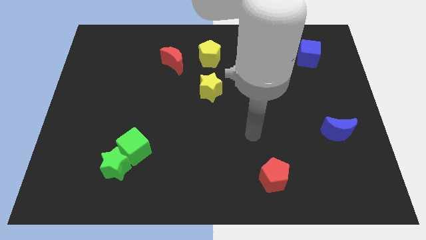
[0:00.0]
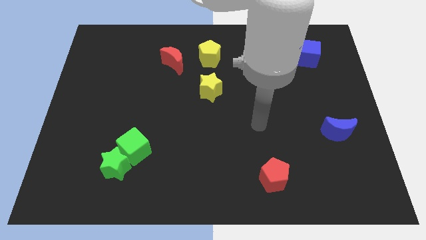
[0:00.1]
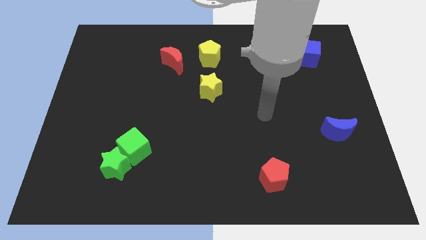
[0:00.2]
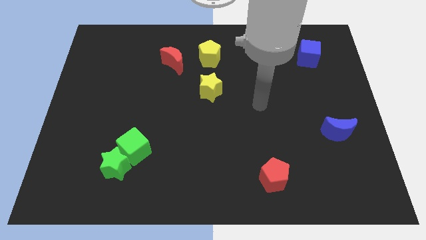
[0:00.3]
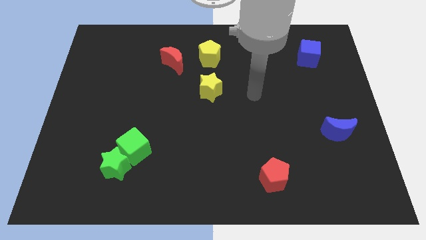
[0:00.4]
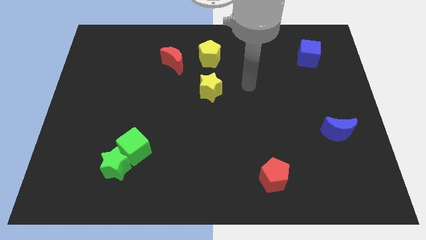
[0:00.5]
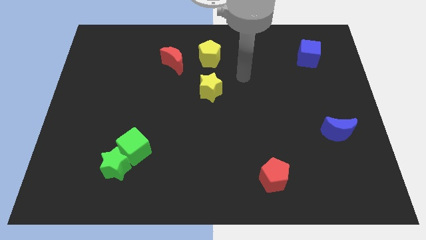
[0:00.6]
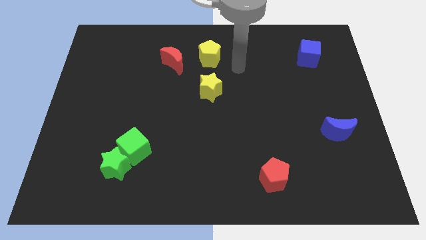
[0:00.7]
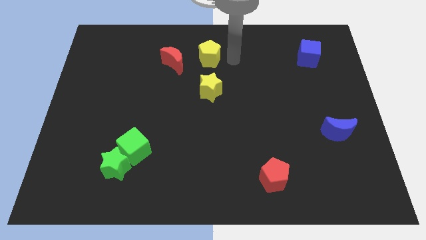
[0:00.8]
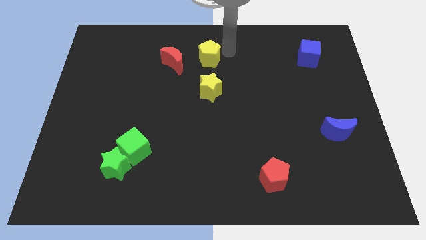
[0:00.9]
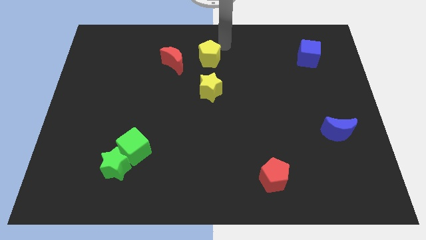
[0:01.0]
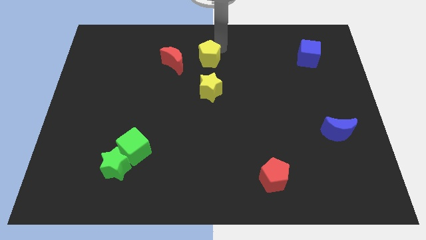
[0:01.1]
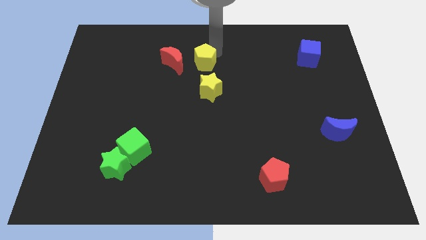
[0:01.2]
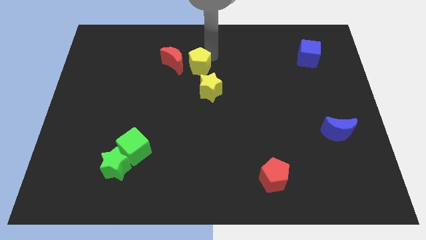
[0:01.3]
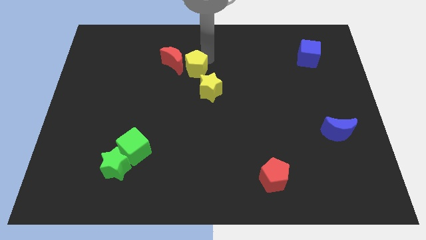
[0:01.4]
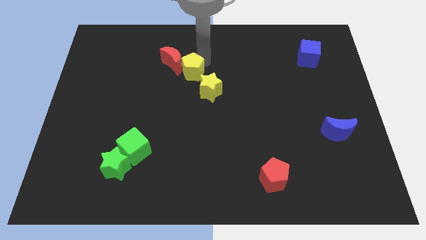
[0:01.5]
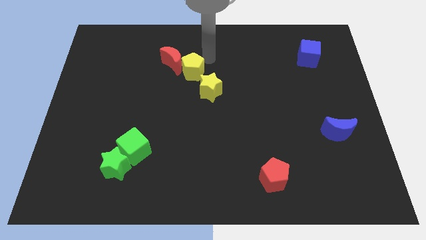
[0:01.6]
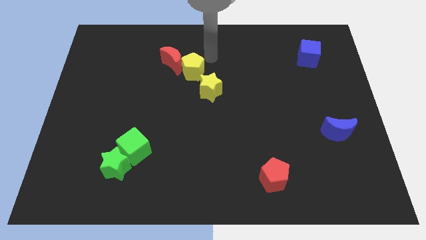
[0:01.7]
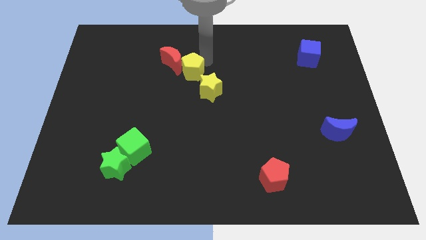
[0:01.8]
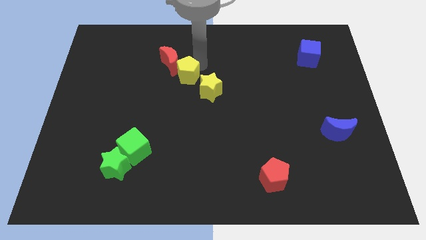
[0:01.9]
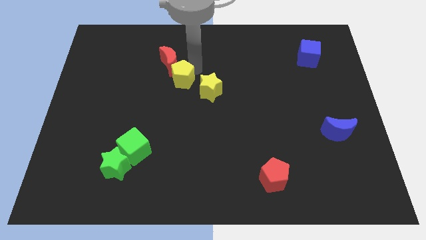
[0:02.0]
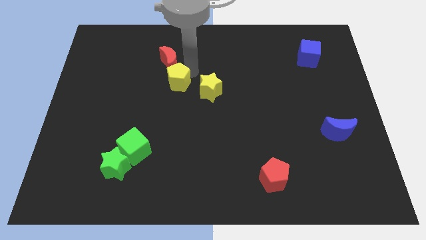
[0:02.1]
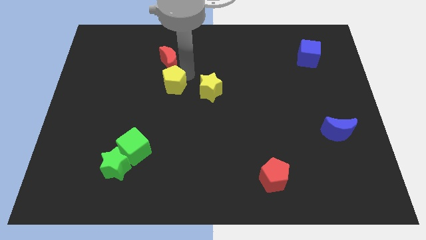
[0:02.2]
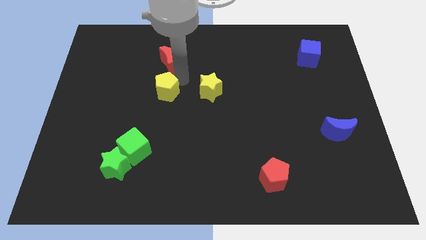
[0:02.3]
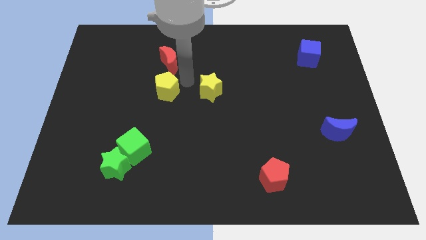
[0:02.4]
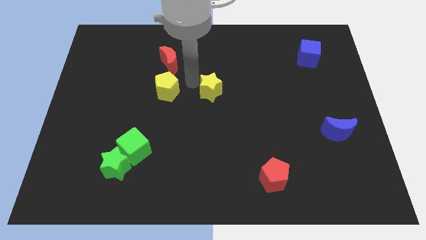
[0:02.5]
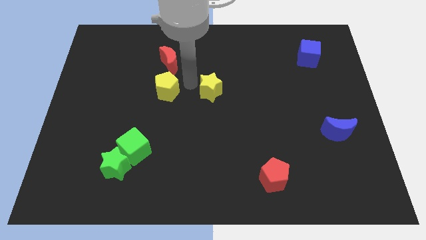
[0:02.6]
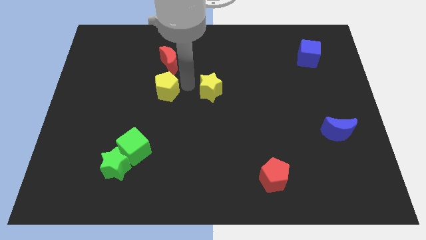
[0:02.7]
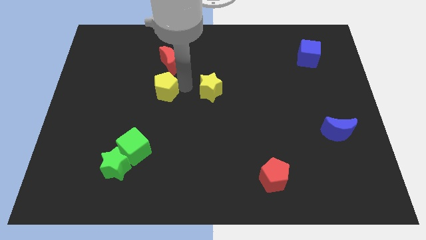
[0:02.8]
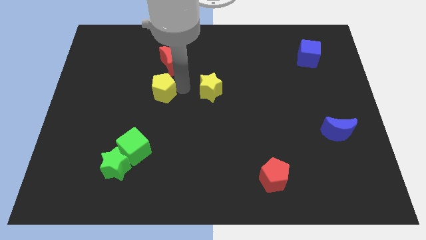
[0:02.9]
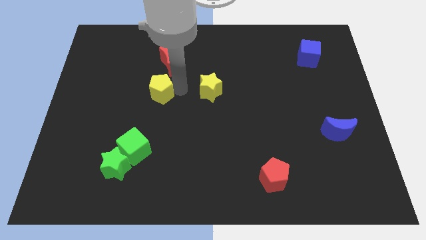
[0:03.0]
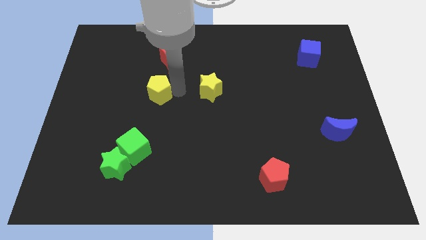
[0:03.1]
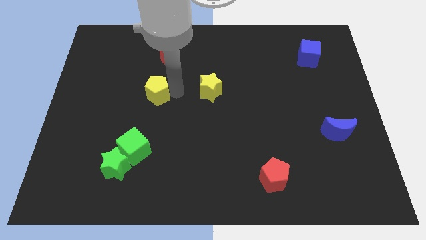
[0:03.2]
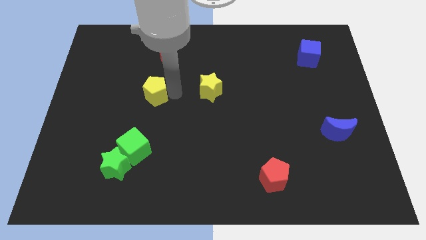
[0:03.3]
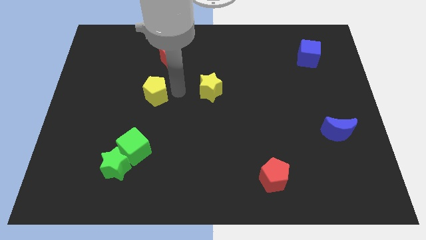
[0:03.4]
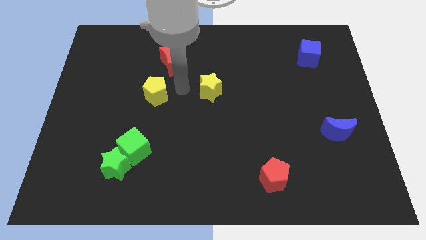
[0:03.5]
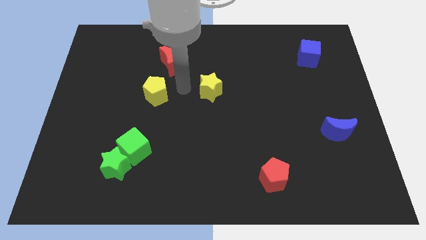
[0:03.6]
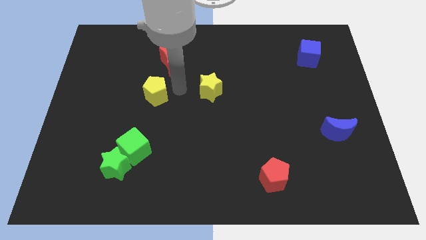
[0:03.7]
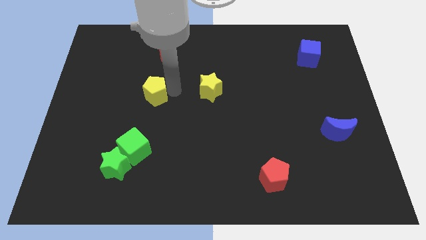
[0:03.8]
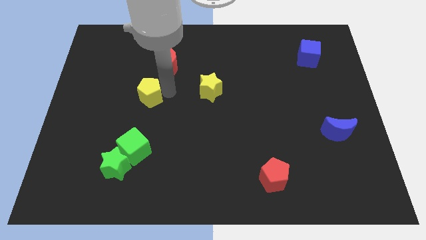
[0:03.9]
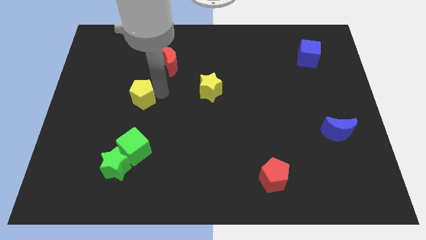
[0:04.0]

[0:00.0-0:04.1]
push the yellow pentagon downwards and left diagonally

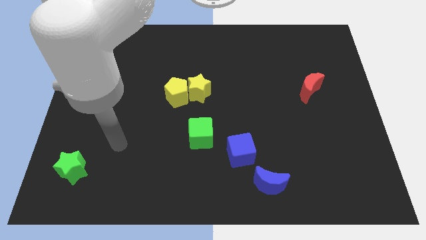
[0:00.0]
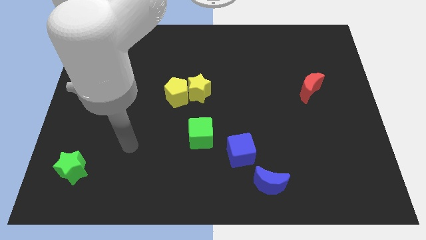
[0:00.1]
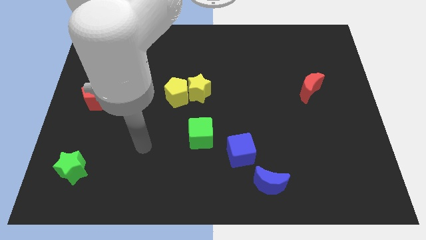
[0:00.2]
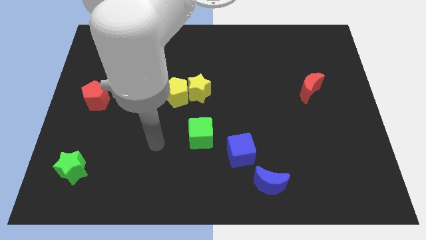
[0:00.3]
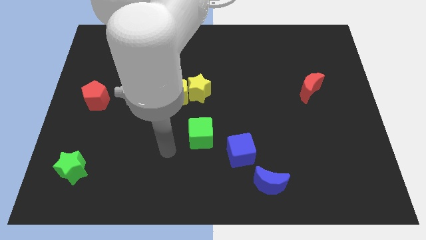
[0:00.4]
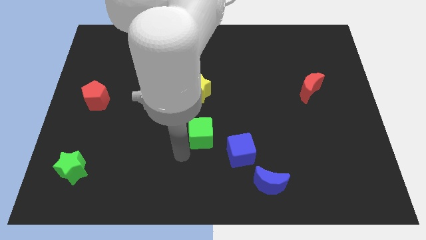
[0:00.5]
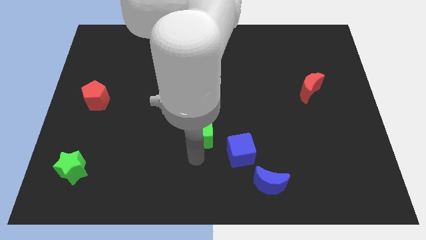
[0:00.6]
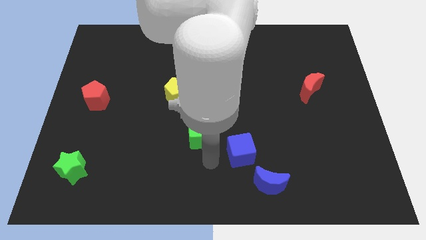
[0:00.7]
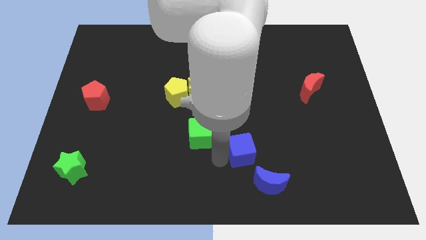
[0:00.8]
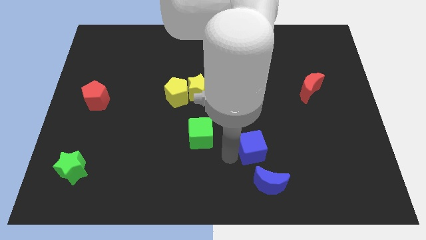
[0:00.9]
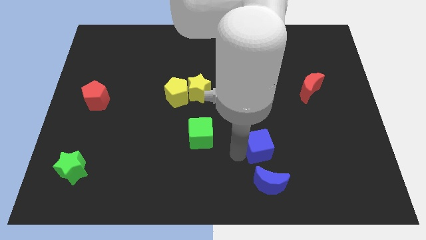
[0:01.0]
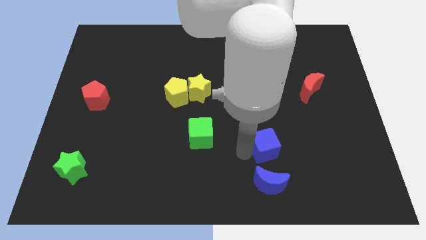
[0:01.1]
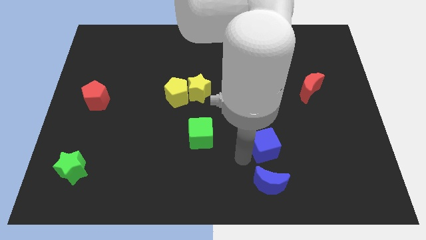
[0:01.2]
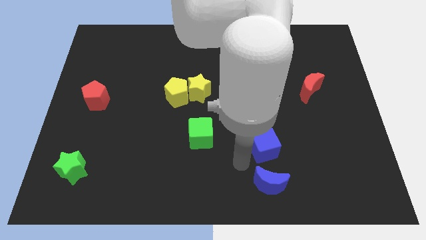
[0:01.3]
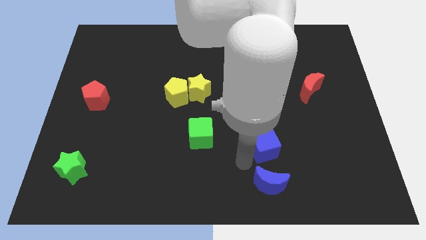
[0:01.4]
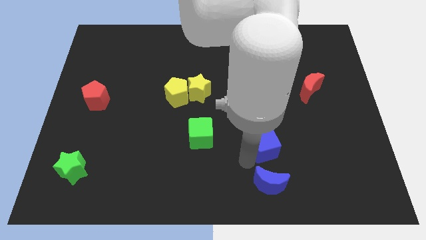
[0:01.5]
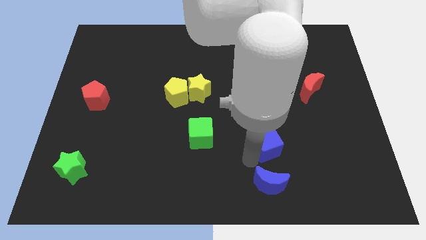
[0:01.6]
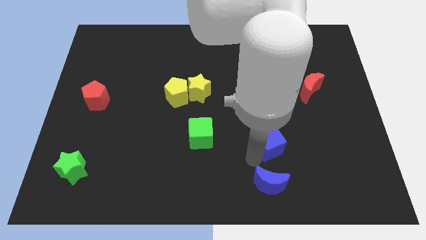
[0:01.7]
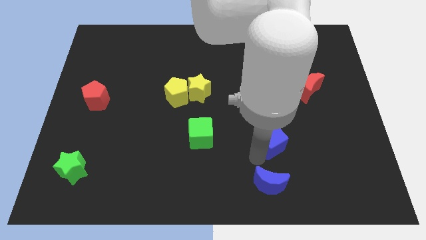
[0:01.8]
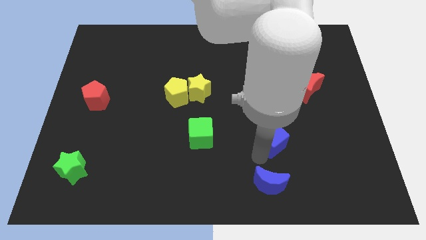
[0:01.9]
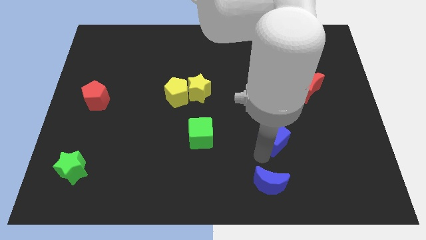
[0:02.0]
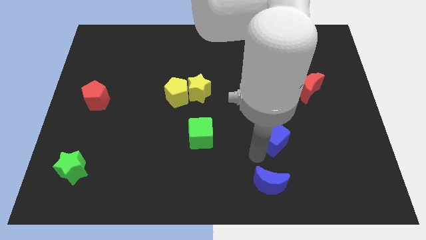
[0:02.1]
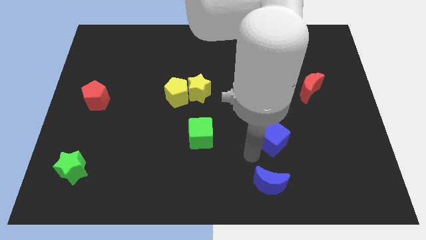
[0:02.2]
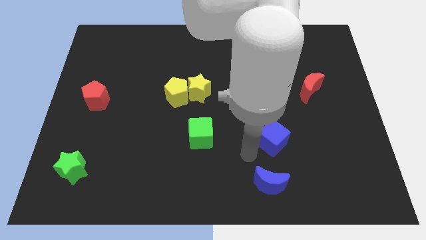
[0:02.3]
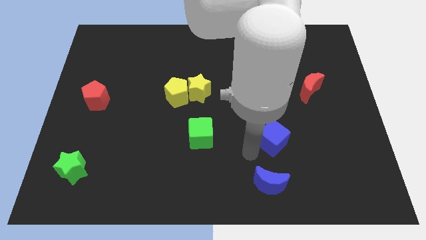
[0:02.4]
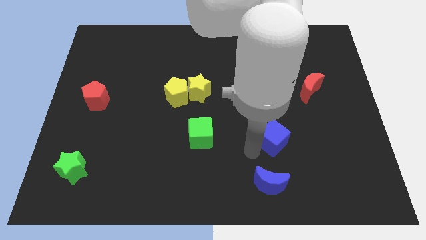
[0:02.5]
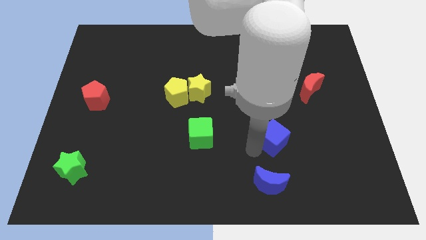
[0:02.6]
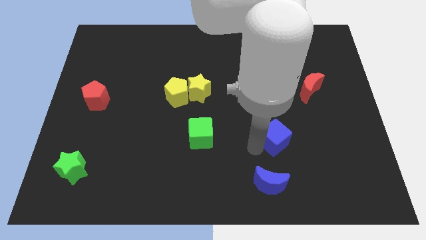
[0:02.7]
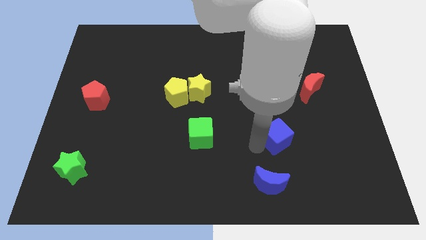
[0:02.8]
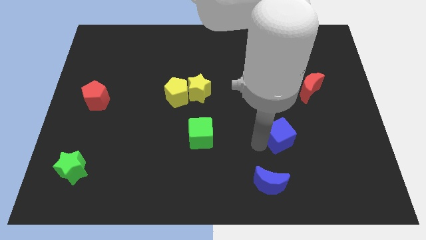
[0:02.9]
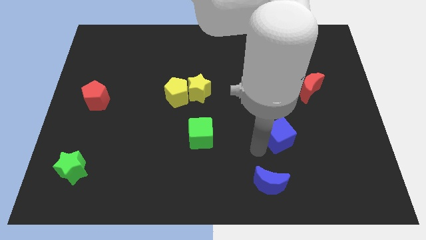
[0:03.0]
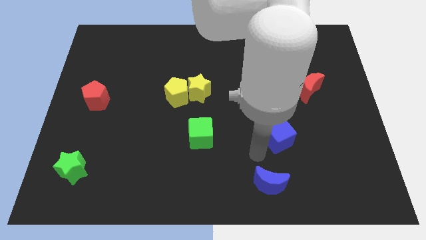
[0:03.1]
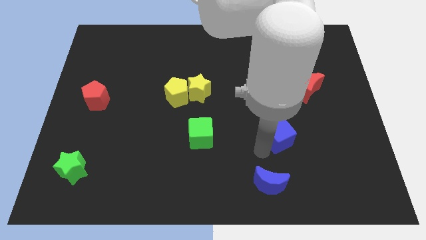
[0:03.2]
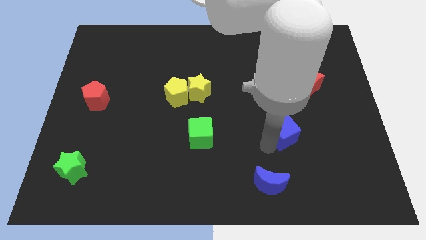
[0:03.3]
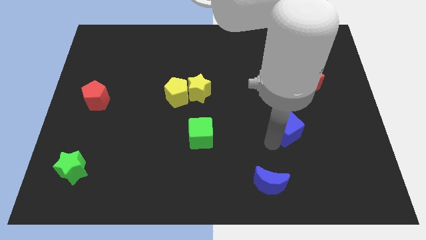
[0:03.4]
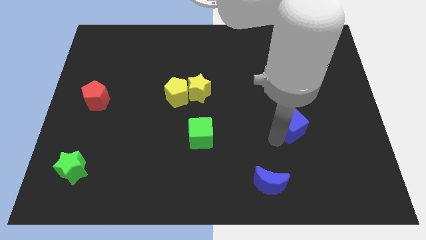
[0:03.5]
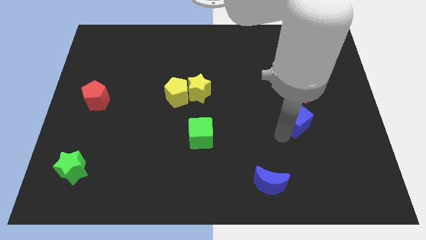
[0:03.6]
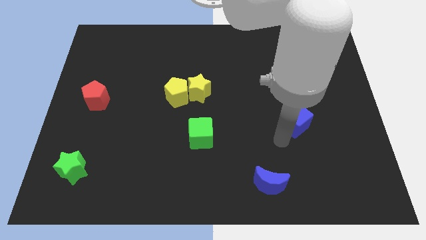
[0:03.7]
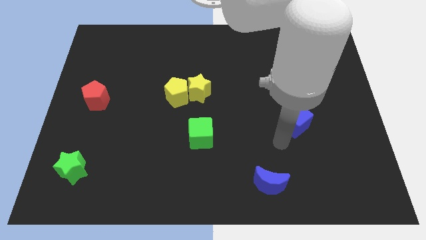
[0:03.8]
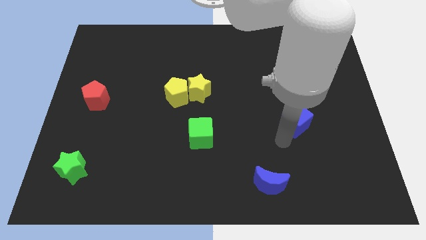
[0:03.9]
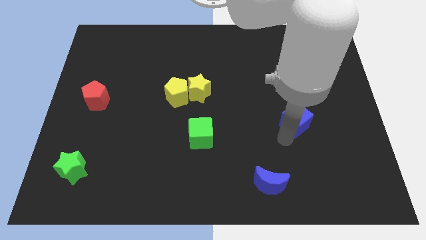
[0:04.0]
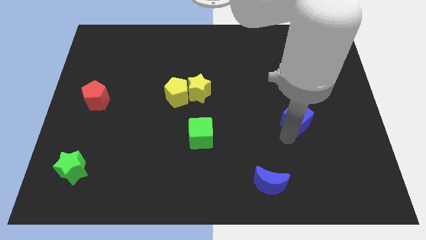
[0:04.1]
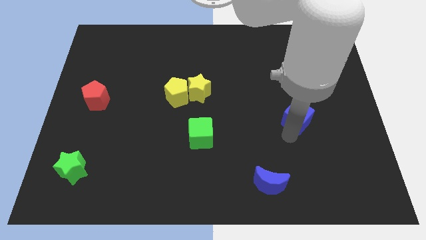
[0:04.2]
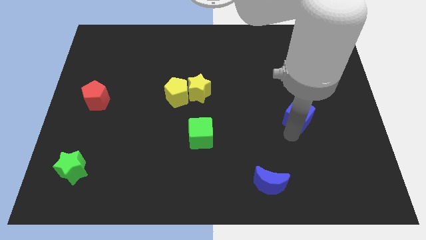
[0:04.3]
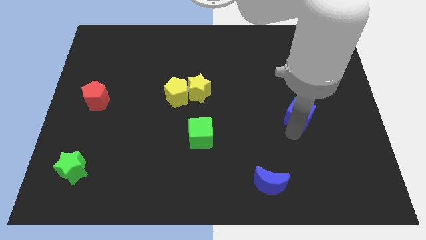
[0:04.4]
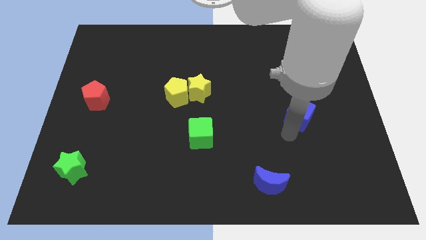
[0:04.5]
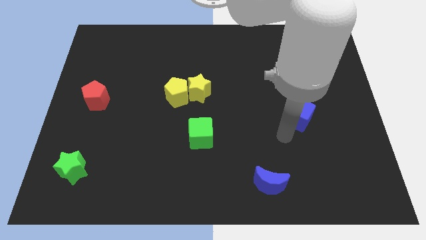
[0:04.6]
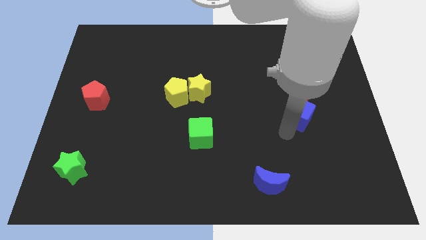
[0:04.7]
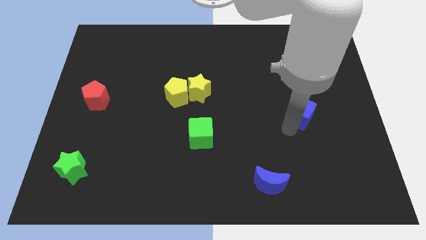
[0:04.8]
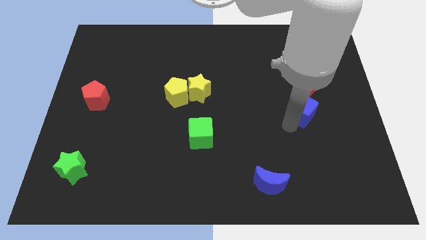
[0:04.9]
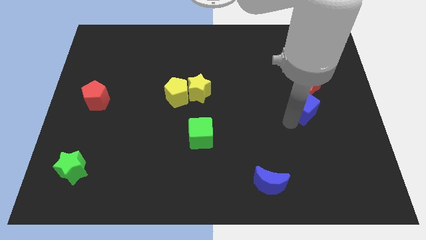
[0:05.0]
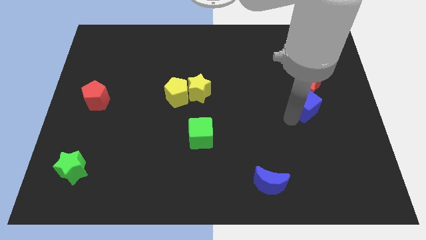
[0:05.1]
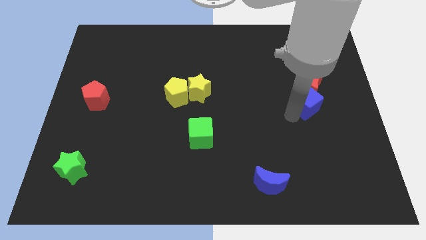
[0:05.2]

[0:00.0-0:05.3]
slide the blue cube up and right
